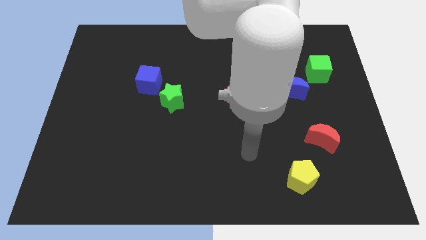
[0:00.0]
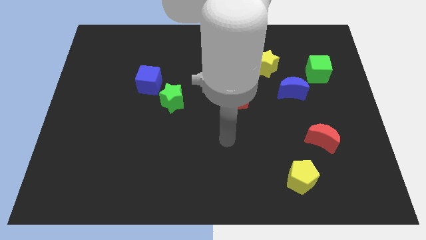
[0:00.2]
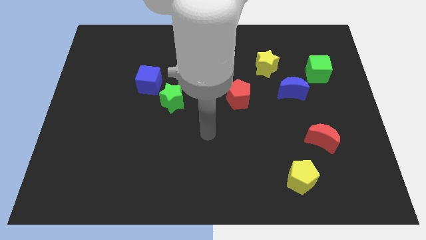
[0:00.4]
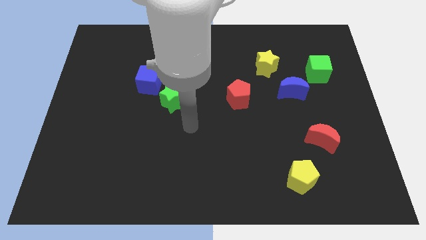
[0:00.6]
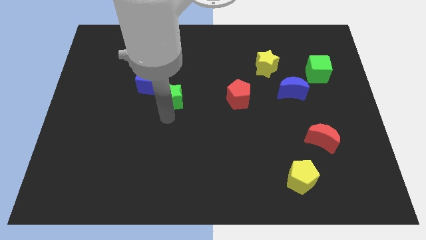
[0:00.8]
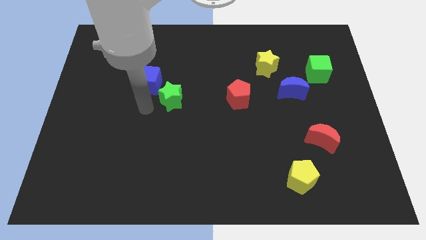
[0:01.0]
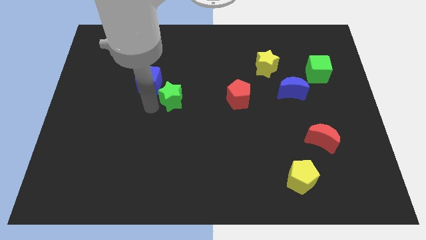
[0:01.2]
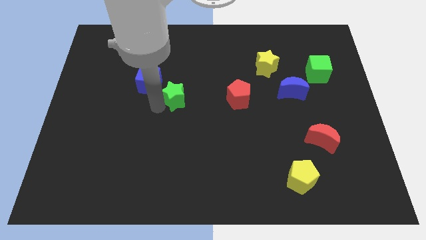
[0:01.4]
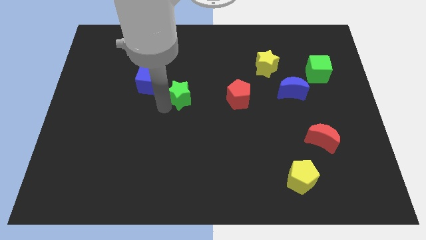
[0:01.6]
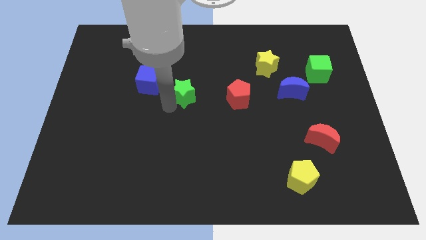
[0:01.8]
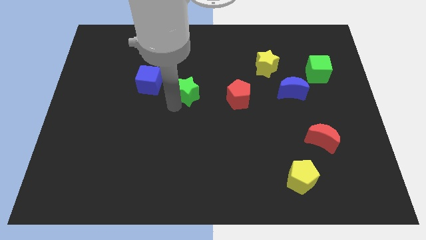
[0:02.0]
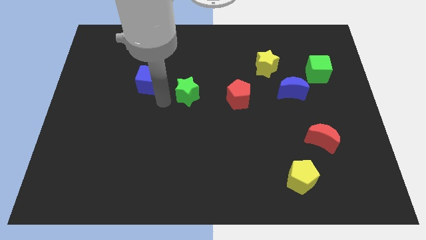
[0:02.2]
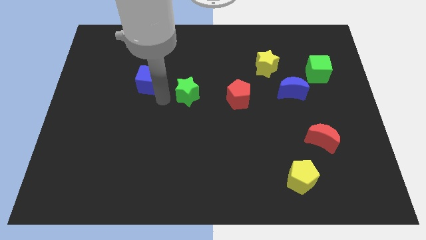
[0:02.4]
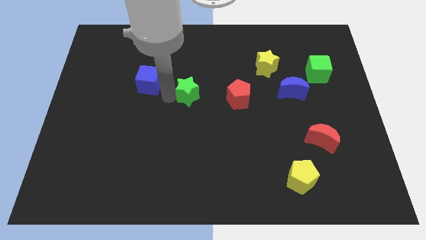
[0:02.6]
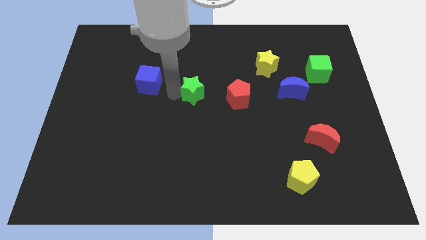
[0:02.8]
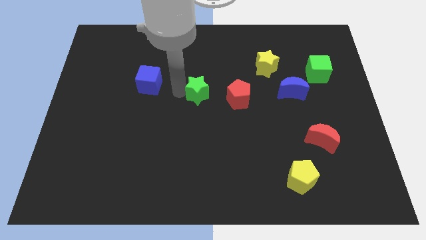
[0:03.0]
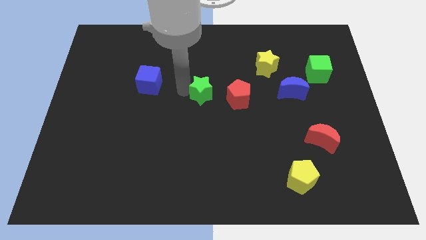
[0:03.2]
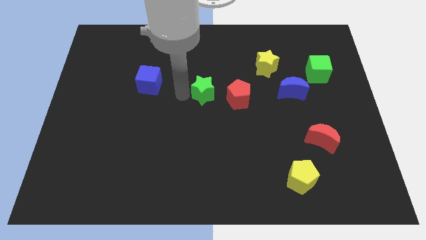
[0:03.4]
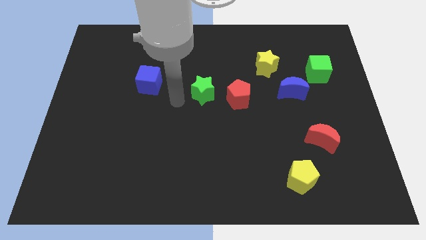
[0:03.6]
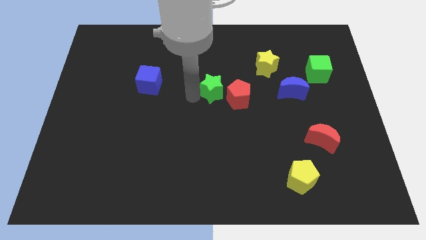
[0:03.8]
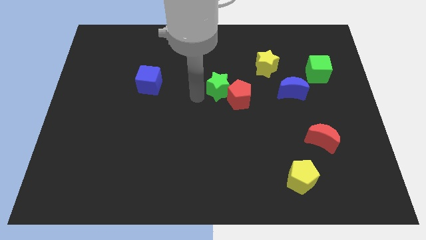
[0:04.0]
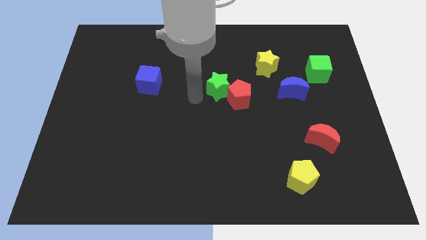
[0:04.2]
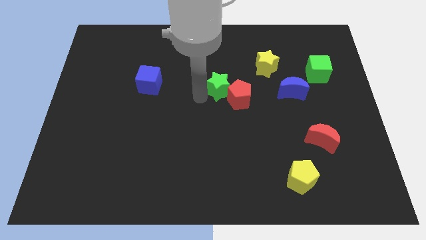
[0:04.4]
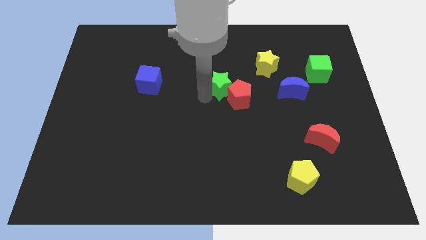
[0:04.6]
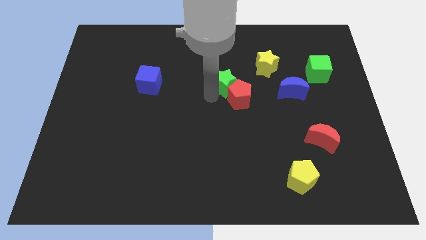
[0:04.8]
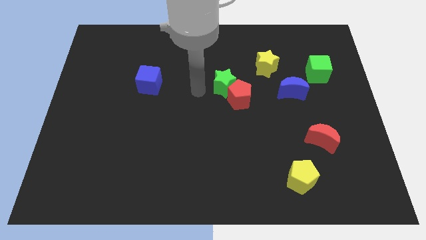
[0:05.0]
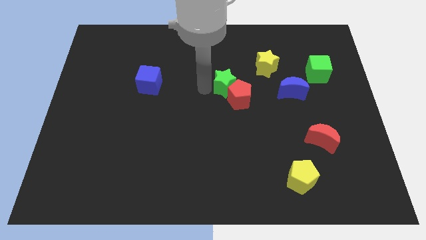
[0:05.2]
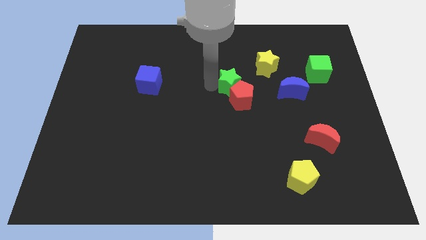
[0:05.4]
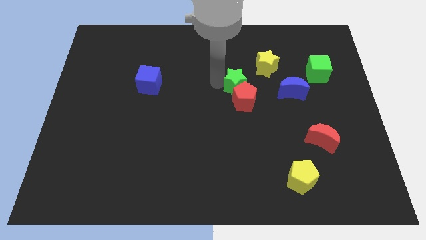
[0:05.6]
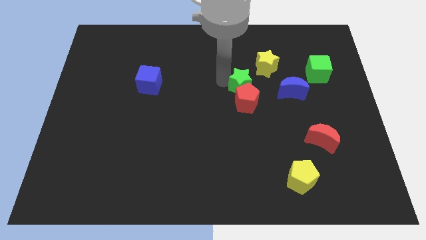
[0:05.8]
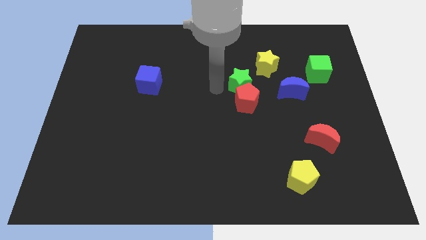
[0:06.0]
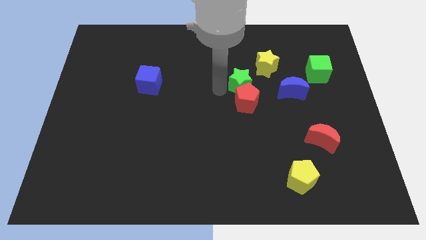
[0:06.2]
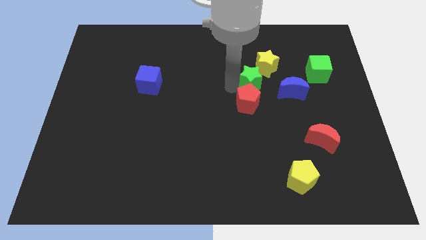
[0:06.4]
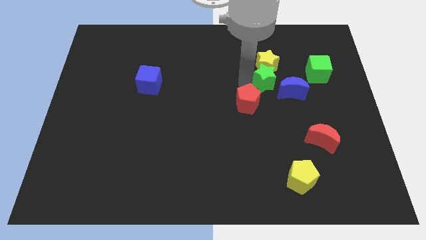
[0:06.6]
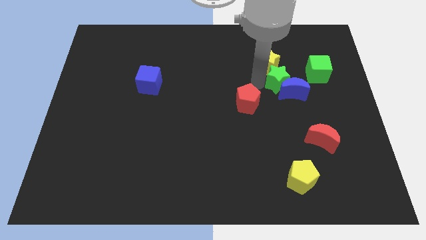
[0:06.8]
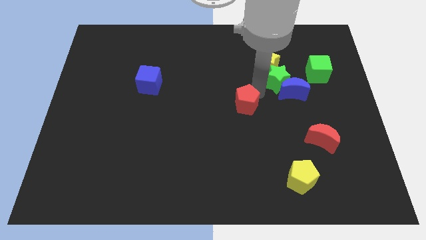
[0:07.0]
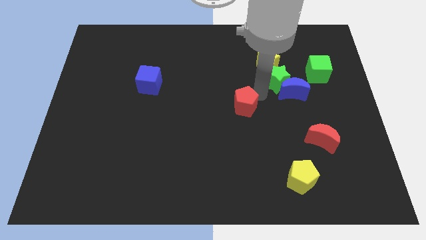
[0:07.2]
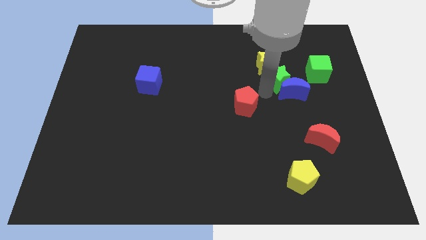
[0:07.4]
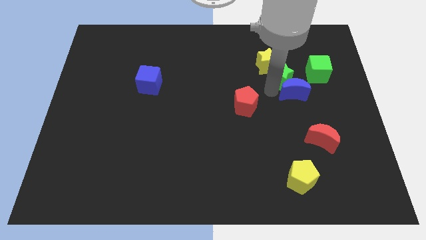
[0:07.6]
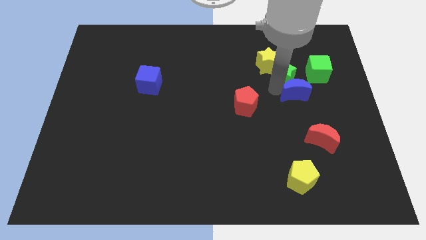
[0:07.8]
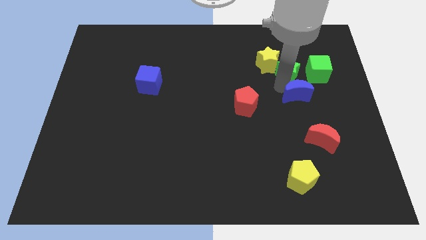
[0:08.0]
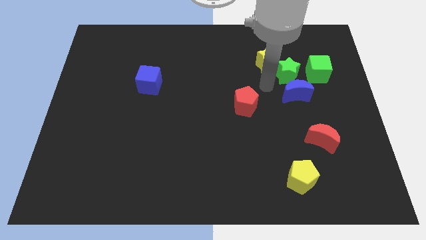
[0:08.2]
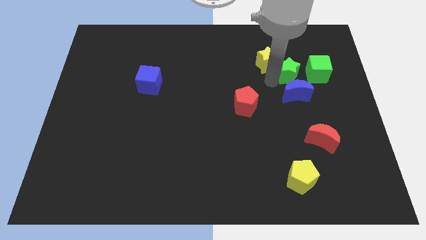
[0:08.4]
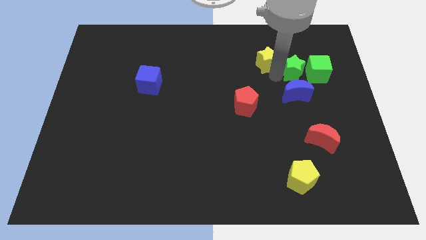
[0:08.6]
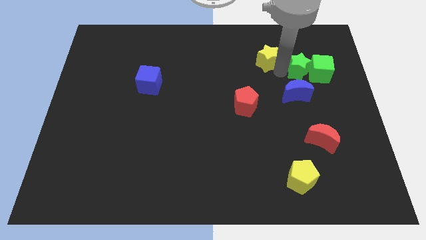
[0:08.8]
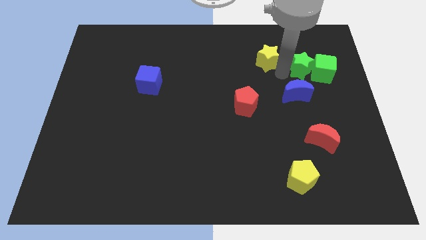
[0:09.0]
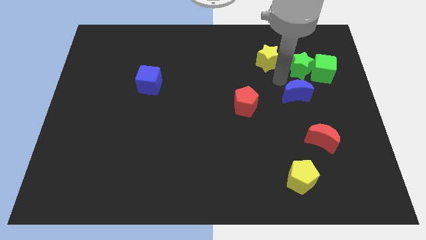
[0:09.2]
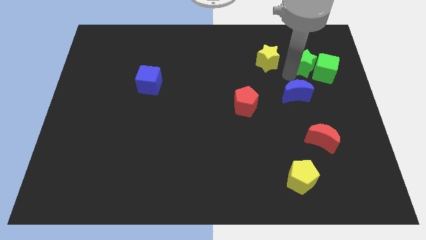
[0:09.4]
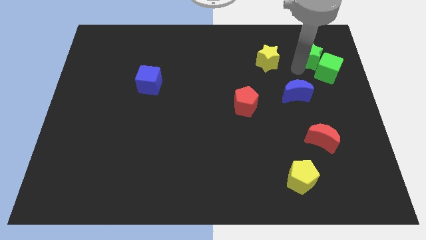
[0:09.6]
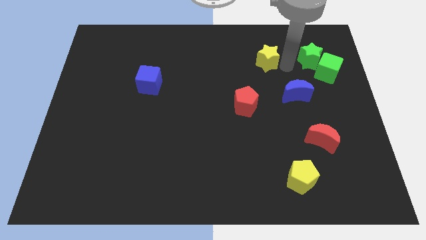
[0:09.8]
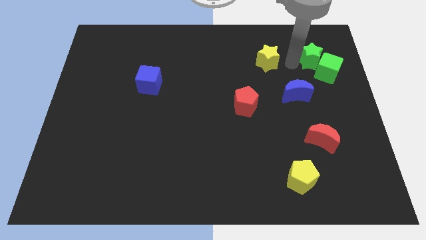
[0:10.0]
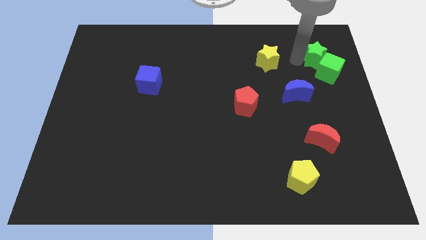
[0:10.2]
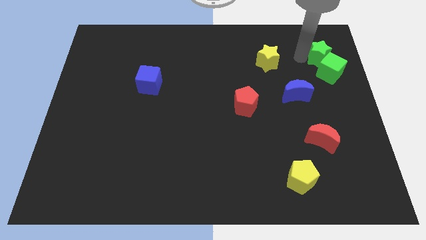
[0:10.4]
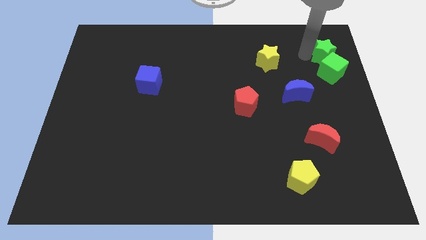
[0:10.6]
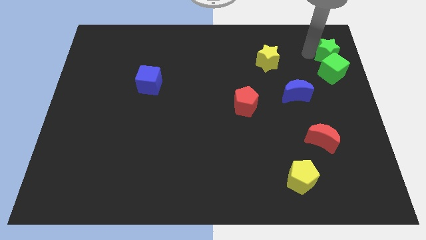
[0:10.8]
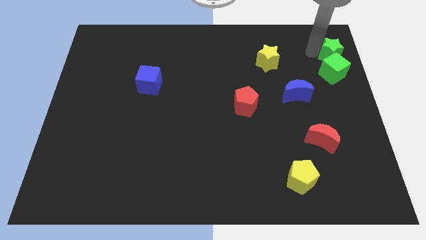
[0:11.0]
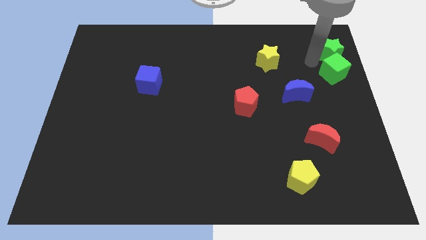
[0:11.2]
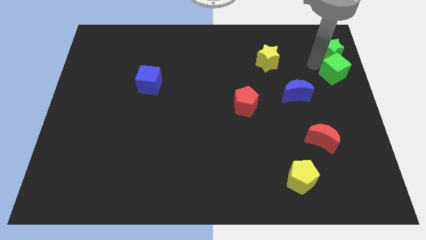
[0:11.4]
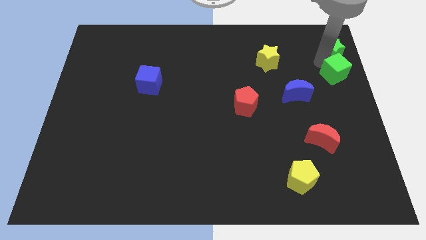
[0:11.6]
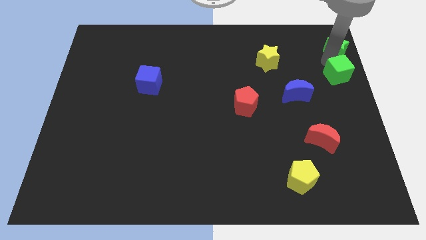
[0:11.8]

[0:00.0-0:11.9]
put the green star to the top right
